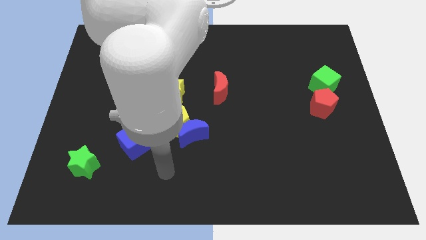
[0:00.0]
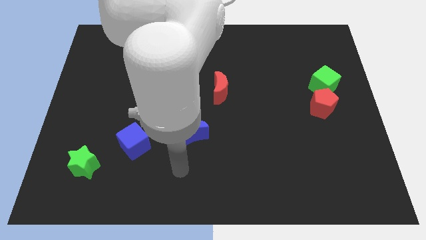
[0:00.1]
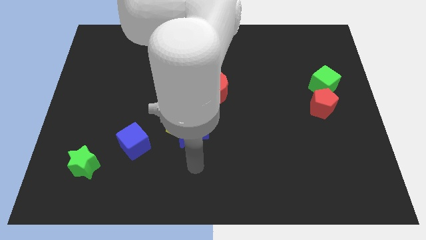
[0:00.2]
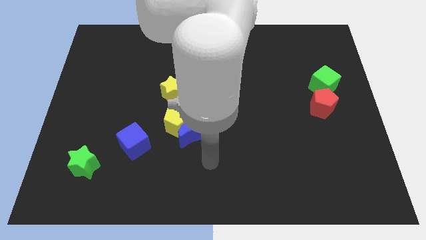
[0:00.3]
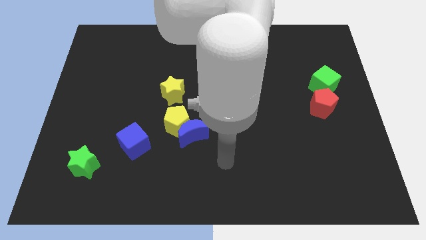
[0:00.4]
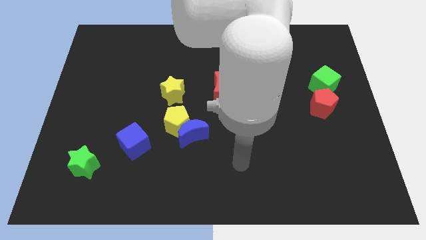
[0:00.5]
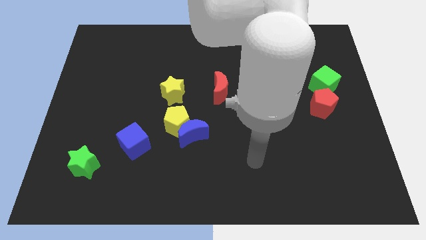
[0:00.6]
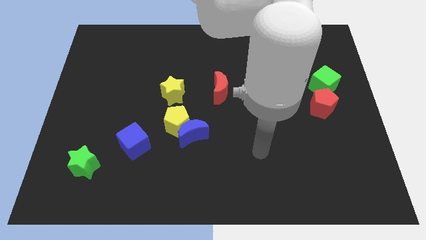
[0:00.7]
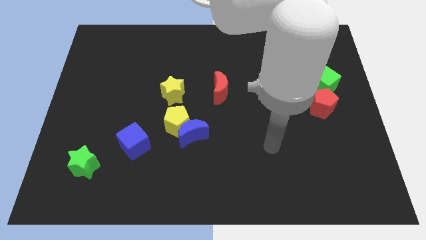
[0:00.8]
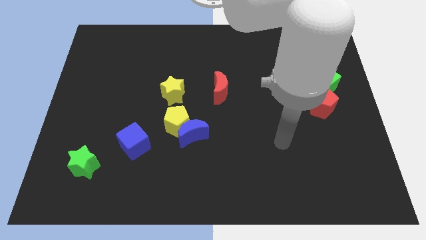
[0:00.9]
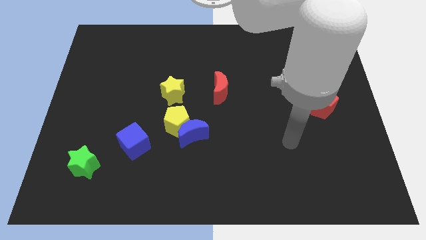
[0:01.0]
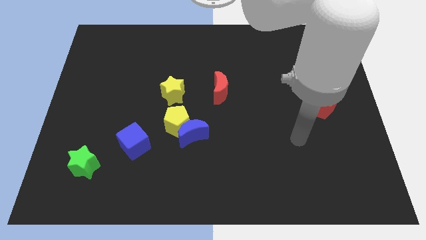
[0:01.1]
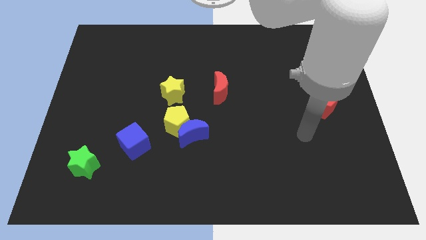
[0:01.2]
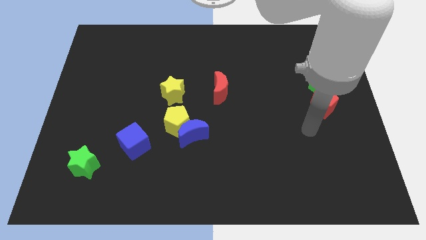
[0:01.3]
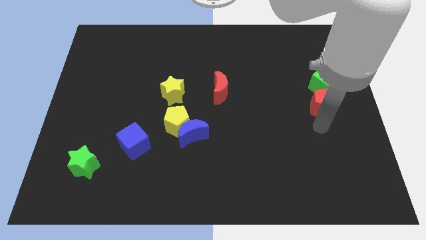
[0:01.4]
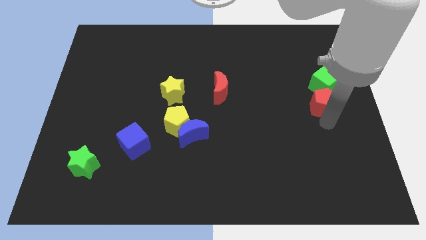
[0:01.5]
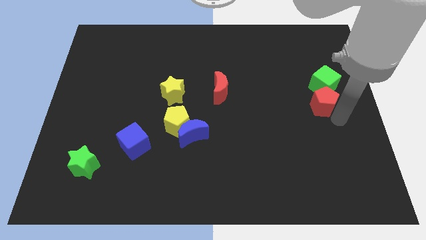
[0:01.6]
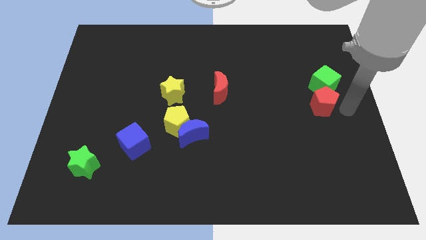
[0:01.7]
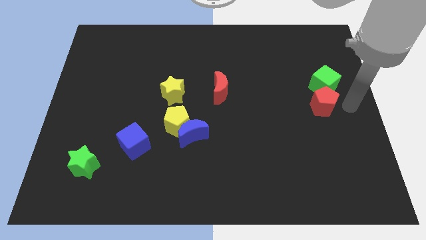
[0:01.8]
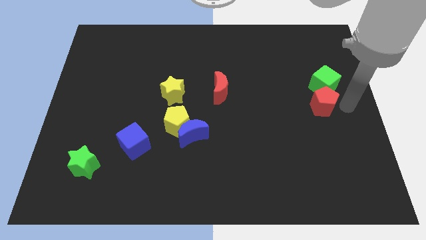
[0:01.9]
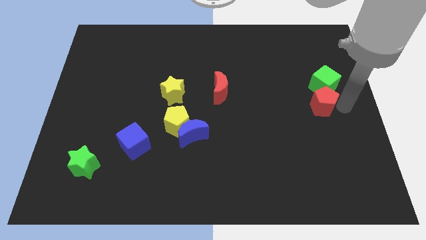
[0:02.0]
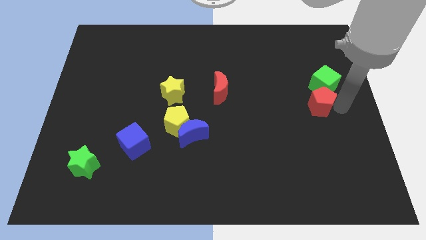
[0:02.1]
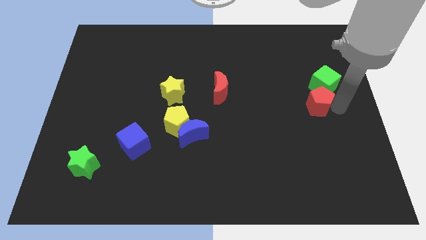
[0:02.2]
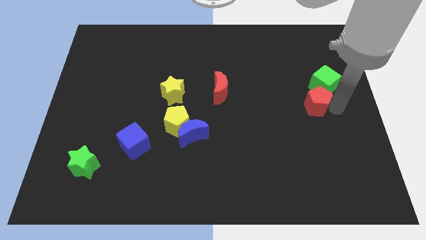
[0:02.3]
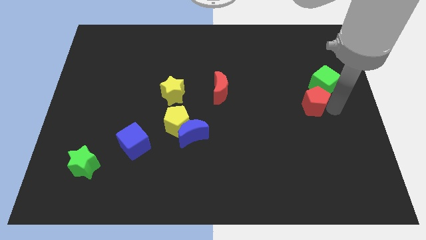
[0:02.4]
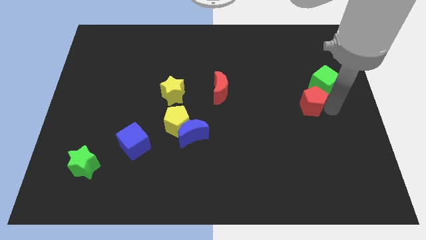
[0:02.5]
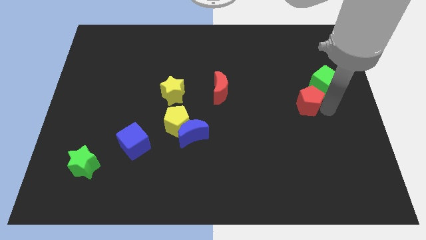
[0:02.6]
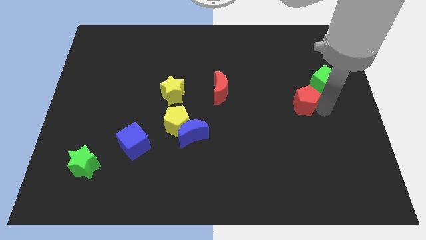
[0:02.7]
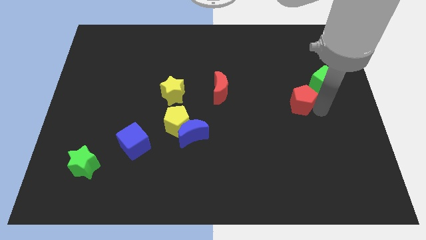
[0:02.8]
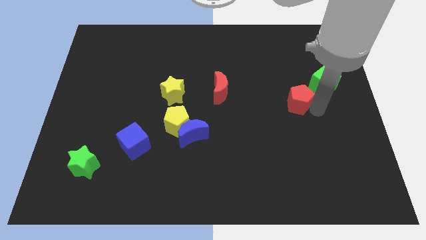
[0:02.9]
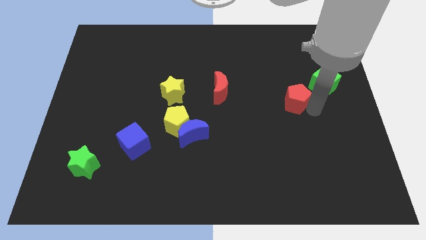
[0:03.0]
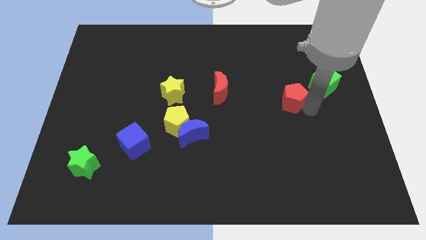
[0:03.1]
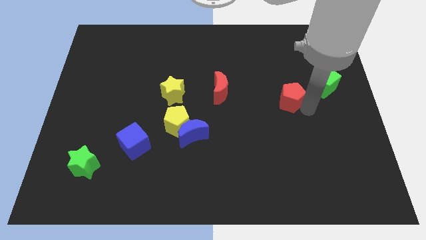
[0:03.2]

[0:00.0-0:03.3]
move the red pentagon a bit left

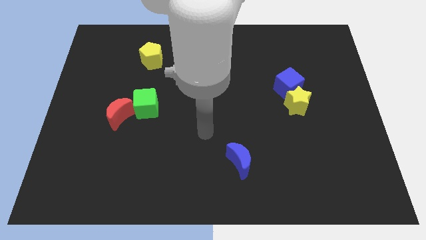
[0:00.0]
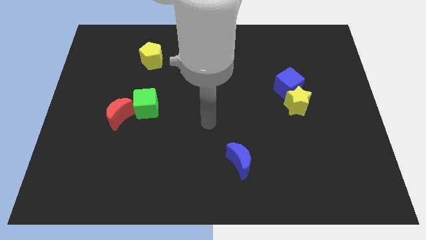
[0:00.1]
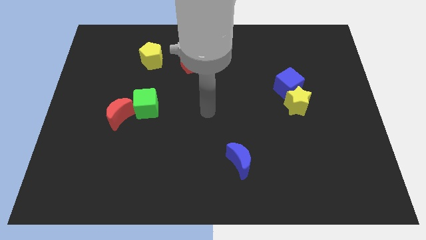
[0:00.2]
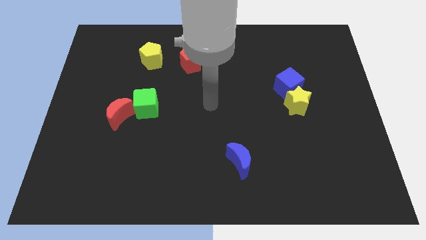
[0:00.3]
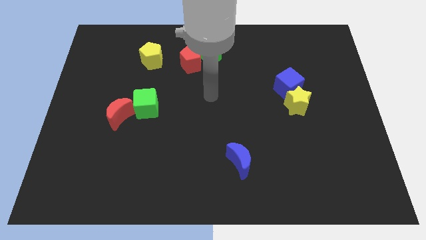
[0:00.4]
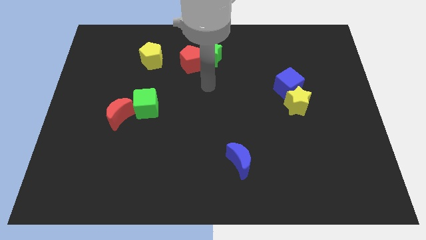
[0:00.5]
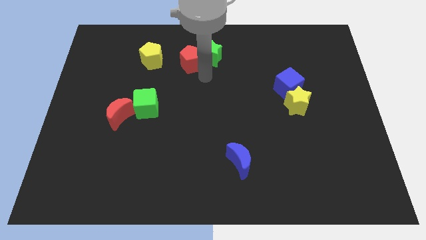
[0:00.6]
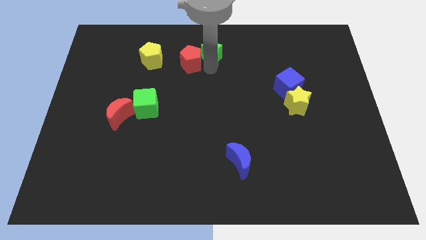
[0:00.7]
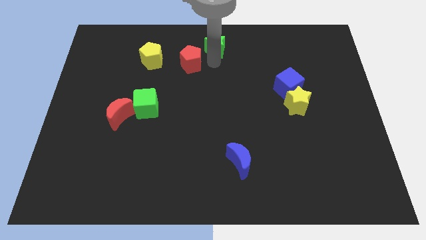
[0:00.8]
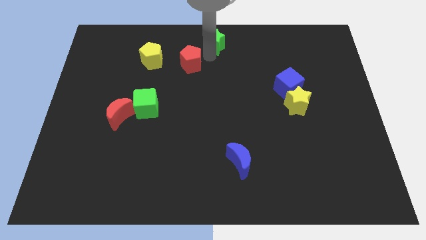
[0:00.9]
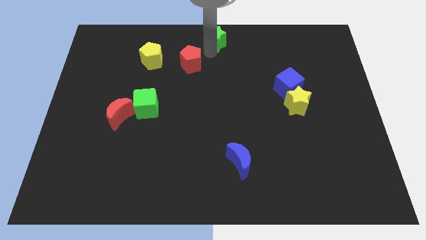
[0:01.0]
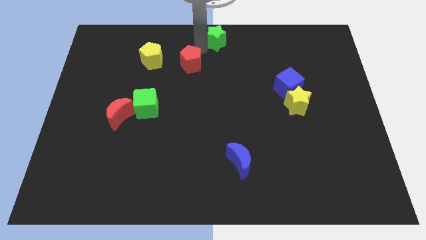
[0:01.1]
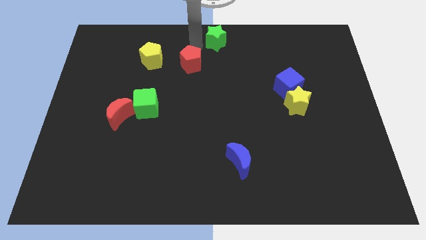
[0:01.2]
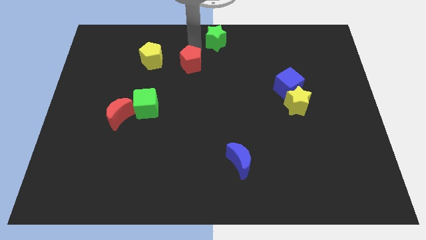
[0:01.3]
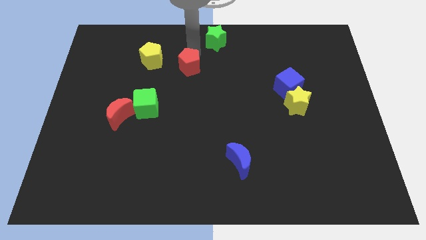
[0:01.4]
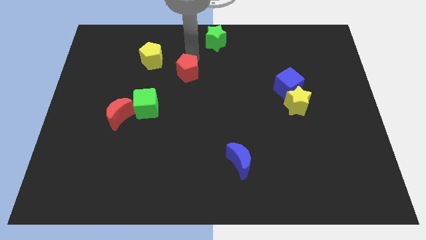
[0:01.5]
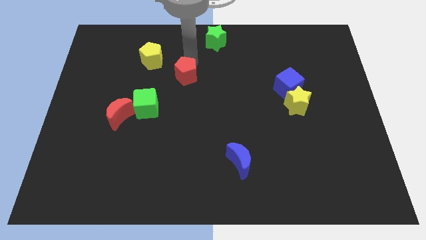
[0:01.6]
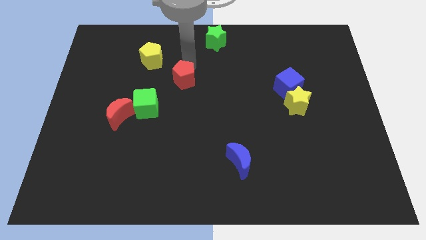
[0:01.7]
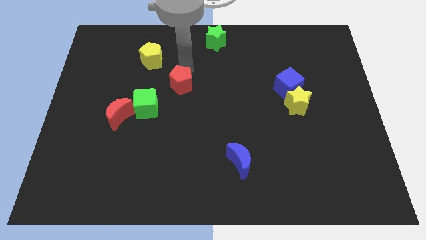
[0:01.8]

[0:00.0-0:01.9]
slightly slide the red pentagon downwards

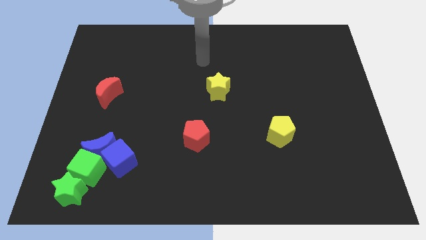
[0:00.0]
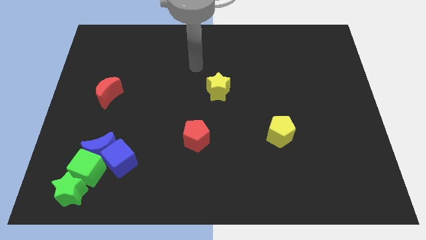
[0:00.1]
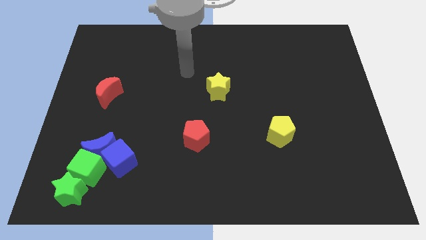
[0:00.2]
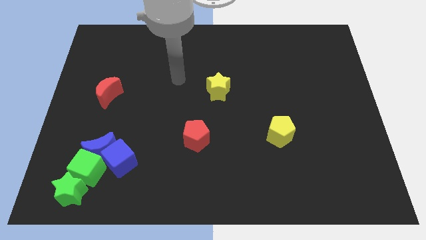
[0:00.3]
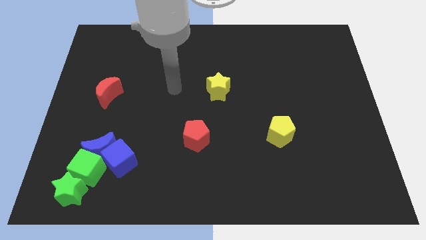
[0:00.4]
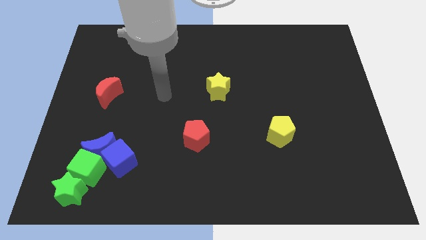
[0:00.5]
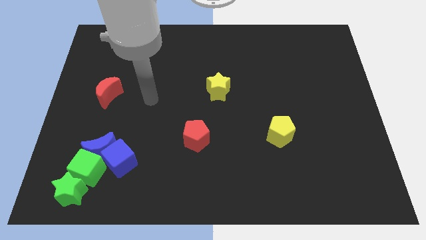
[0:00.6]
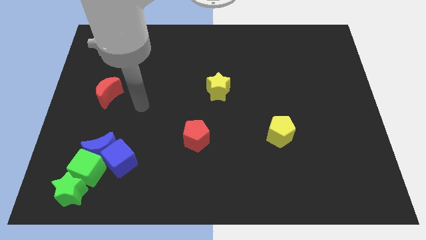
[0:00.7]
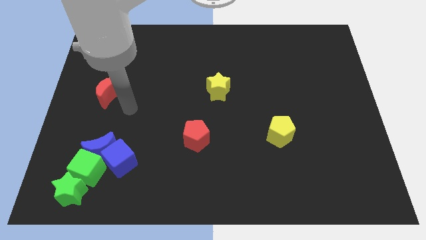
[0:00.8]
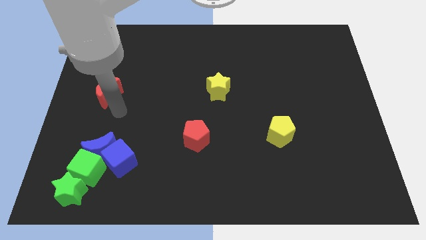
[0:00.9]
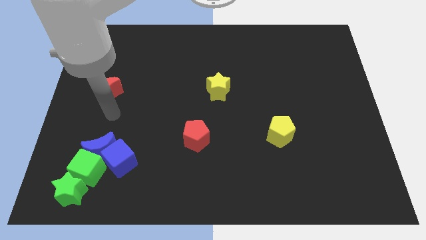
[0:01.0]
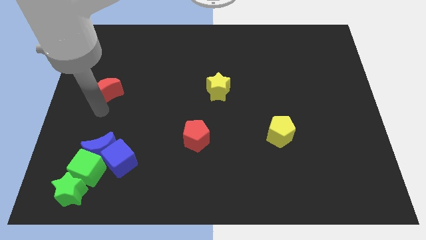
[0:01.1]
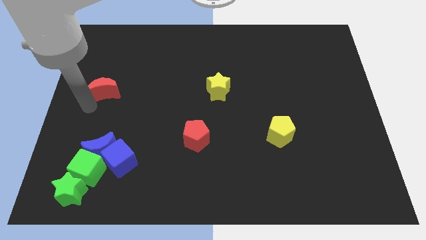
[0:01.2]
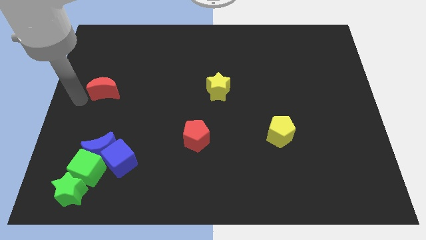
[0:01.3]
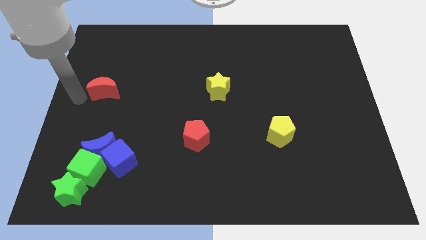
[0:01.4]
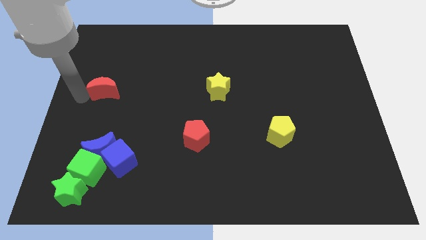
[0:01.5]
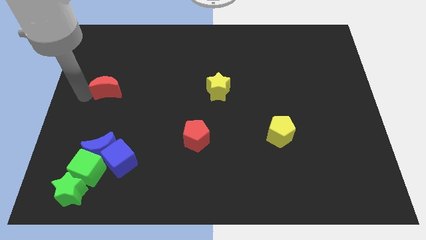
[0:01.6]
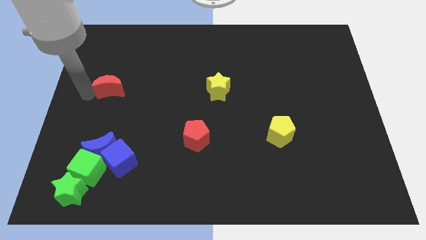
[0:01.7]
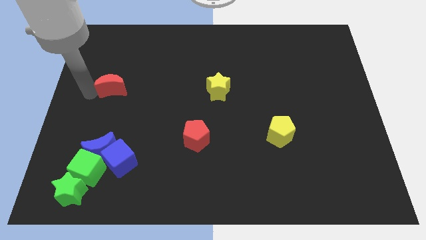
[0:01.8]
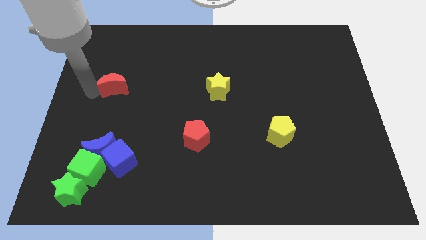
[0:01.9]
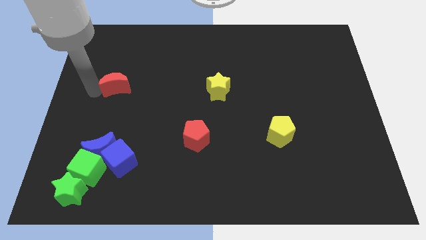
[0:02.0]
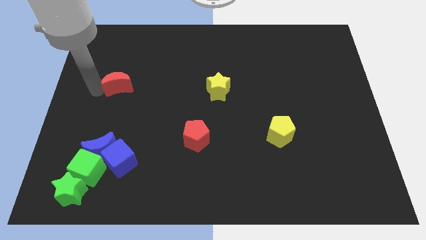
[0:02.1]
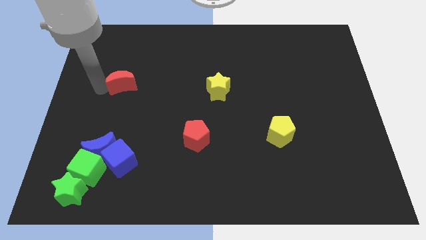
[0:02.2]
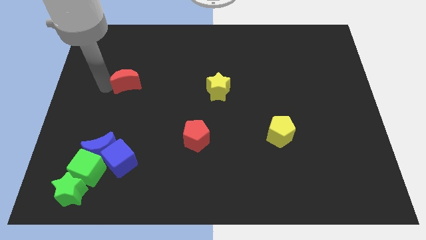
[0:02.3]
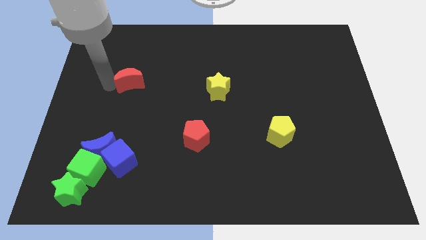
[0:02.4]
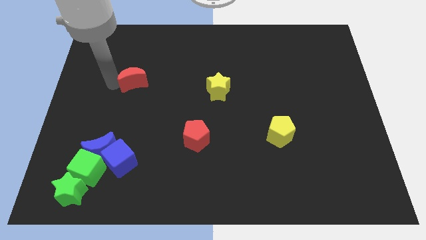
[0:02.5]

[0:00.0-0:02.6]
push the red moon somewhat diagonally upwards and to the right

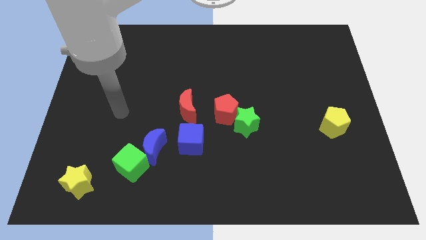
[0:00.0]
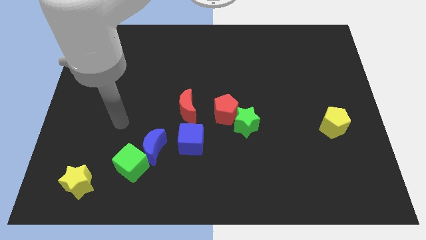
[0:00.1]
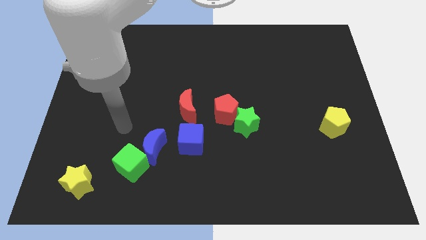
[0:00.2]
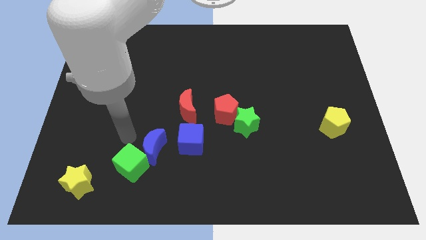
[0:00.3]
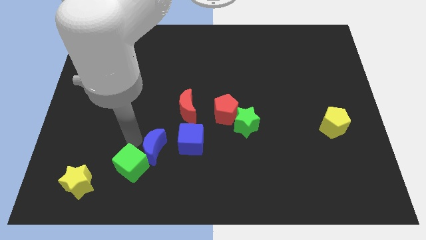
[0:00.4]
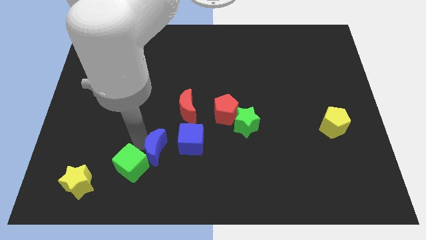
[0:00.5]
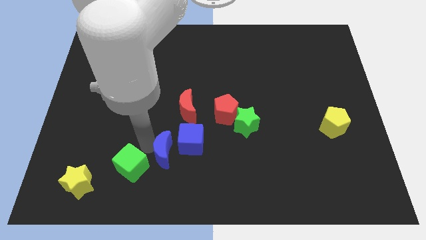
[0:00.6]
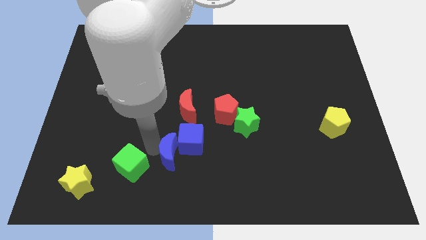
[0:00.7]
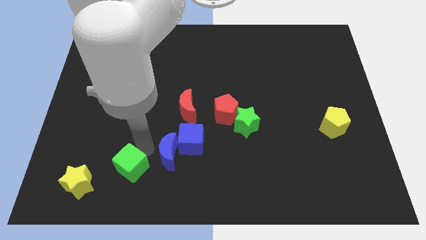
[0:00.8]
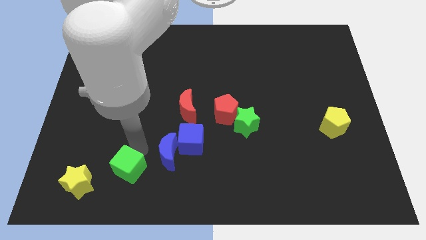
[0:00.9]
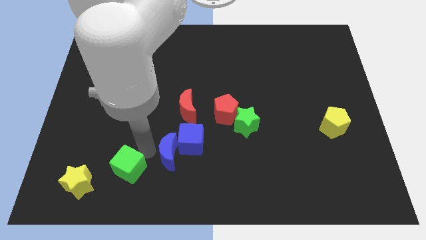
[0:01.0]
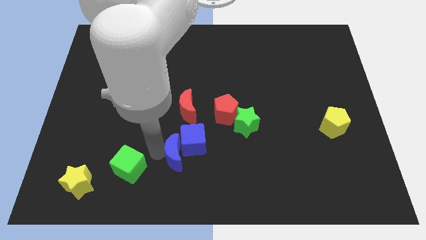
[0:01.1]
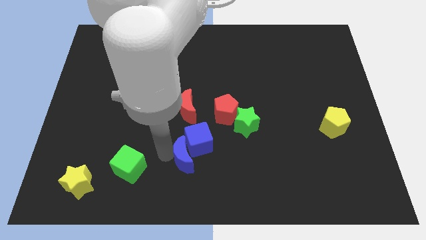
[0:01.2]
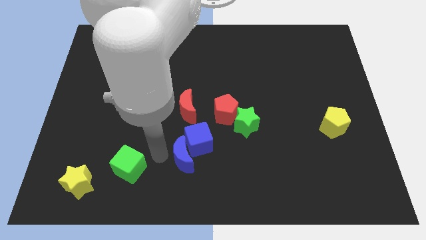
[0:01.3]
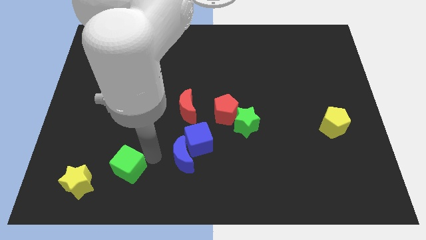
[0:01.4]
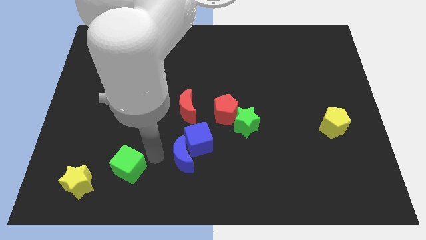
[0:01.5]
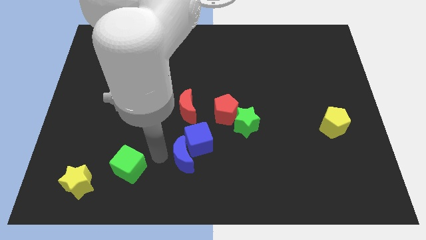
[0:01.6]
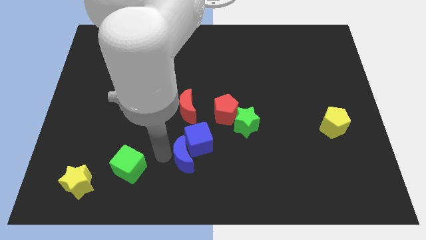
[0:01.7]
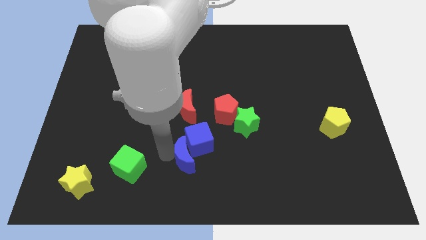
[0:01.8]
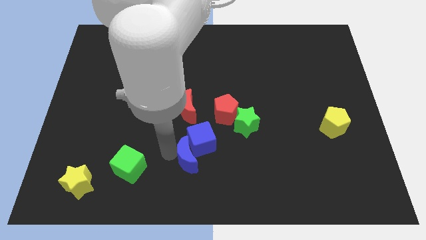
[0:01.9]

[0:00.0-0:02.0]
slide the blue moon to the right a little bit
